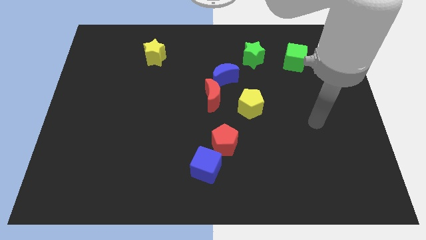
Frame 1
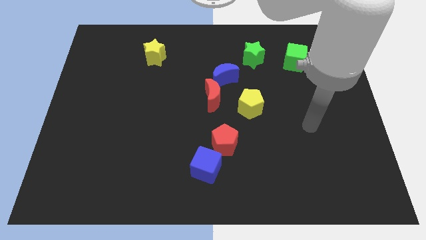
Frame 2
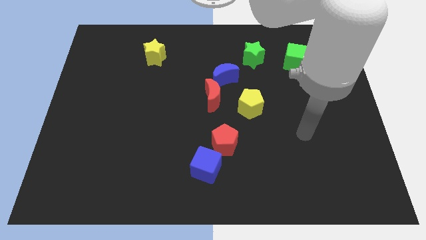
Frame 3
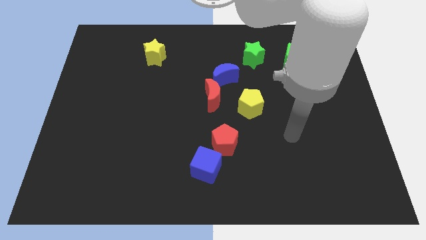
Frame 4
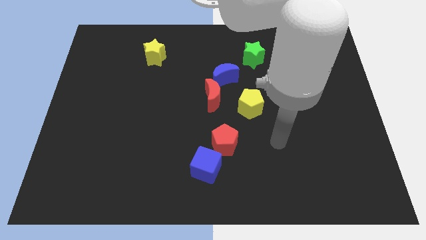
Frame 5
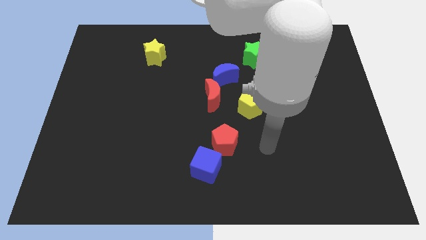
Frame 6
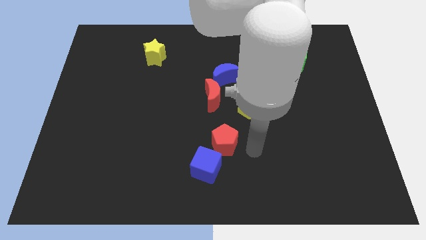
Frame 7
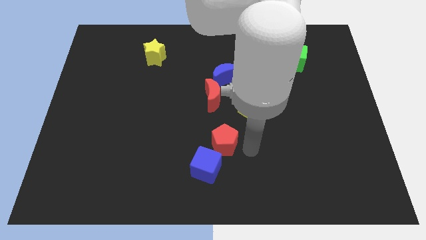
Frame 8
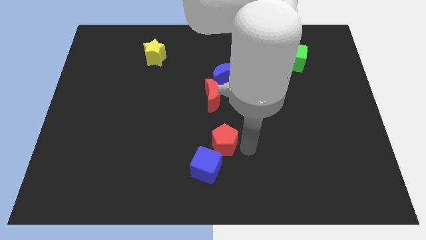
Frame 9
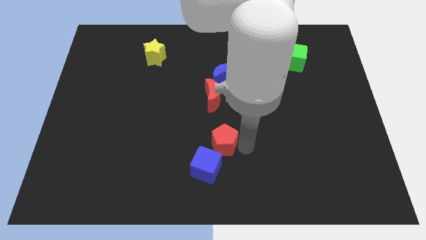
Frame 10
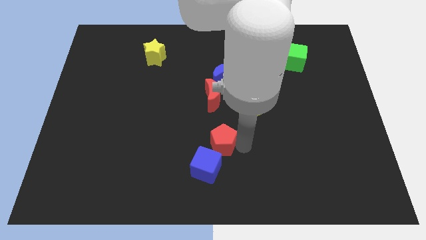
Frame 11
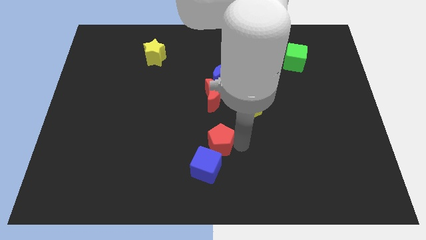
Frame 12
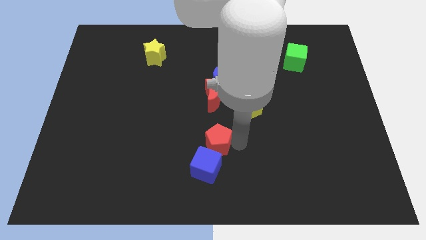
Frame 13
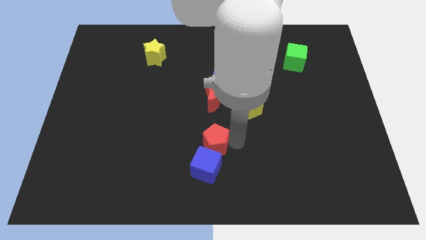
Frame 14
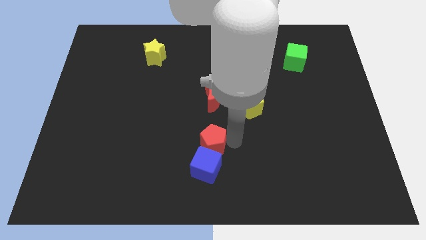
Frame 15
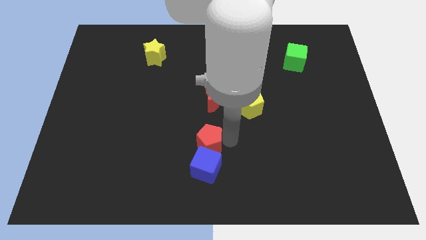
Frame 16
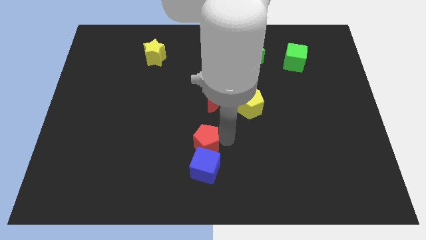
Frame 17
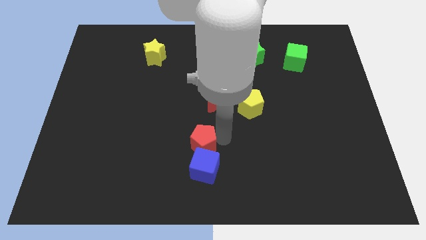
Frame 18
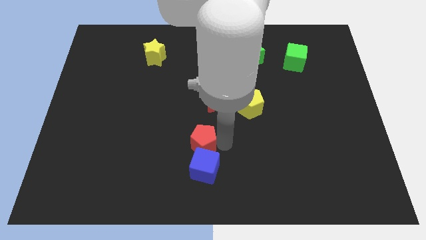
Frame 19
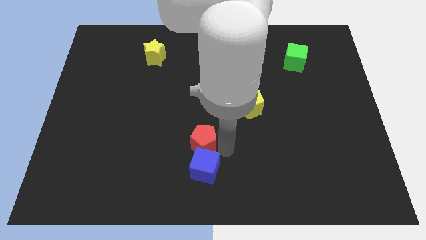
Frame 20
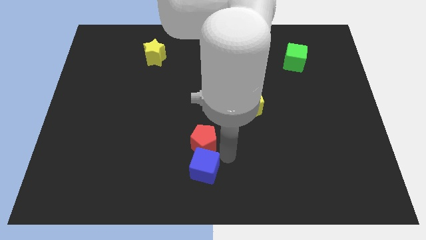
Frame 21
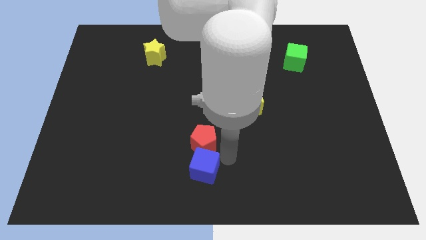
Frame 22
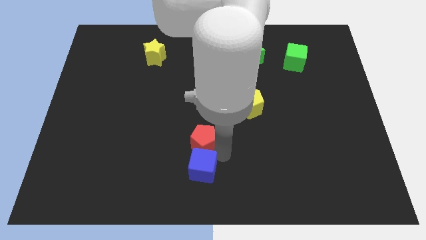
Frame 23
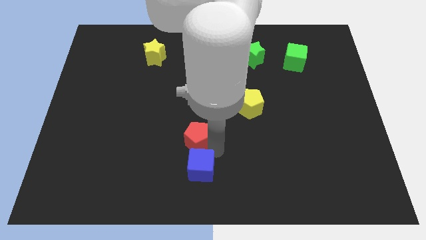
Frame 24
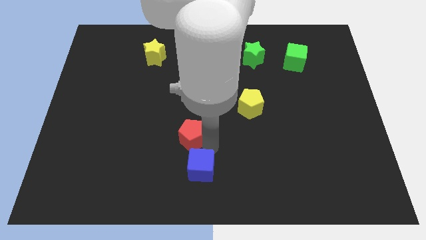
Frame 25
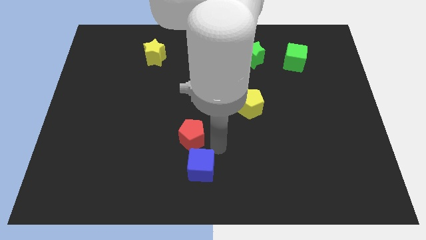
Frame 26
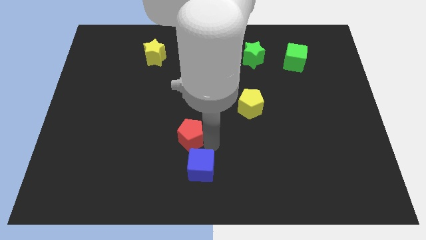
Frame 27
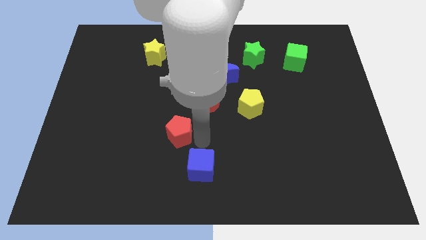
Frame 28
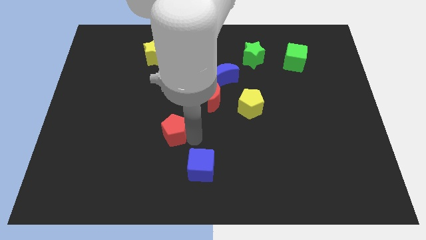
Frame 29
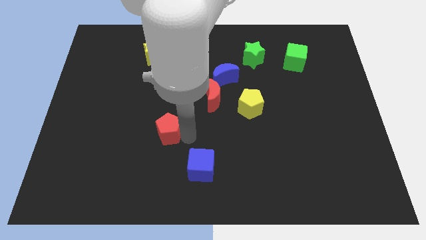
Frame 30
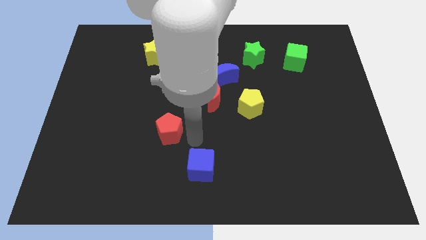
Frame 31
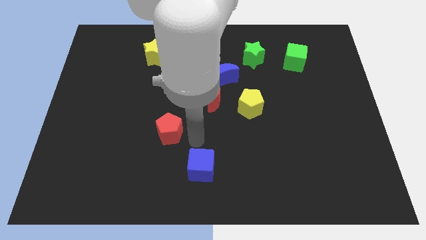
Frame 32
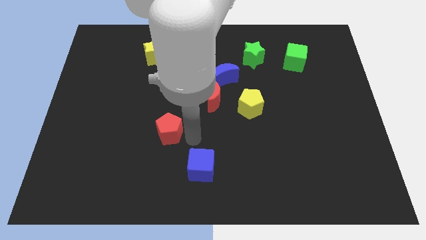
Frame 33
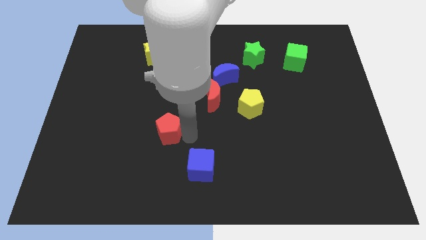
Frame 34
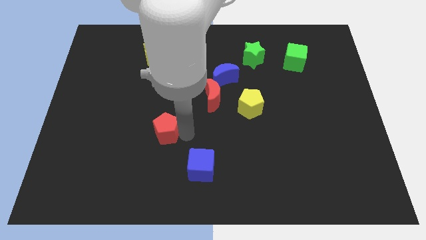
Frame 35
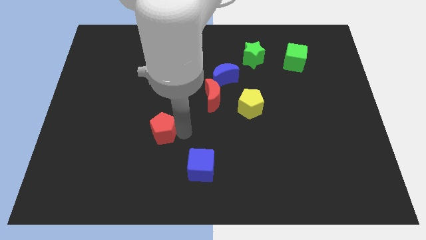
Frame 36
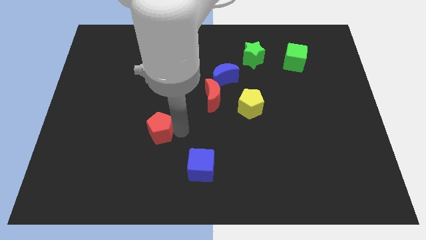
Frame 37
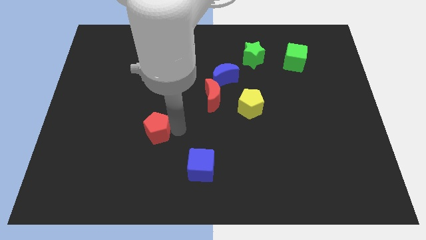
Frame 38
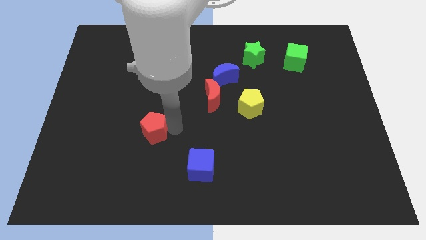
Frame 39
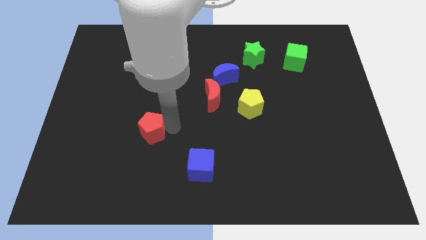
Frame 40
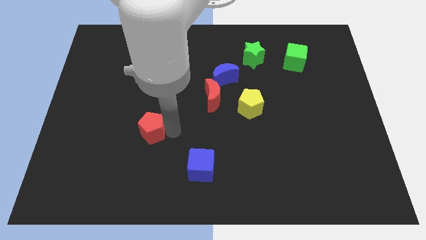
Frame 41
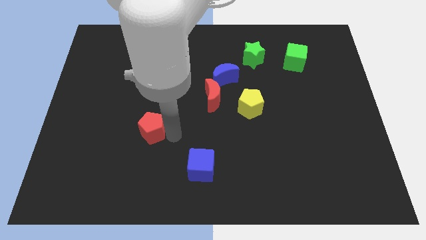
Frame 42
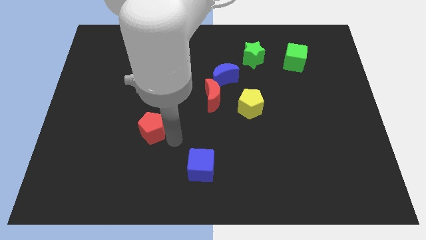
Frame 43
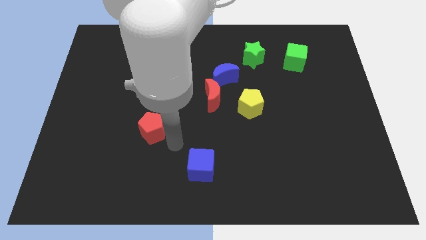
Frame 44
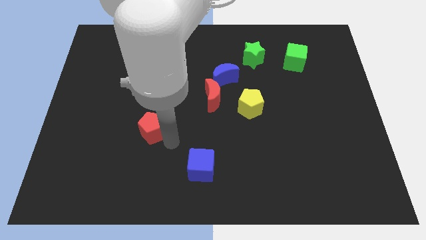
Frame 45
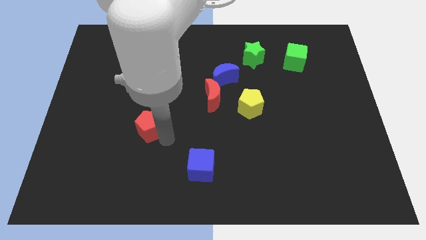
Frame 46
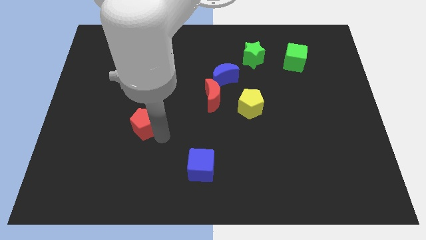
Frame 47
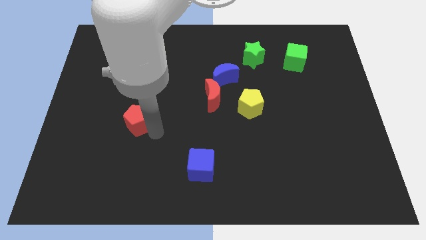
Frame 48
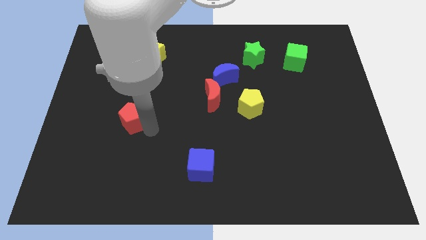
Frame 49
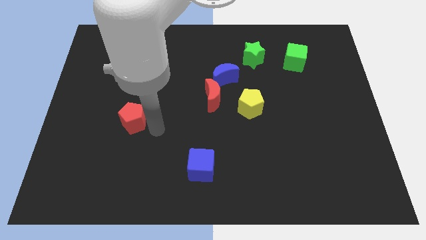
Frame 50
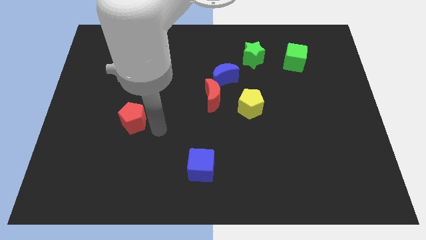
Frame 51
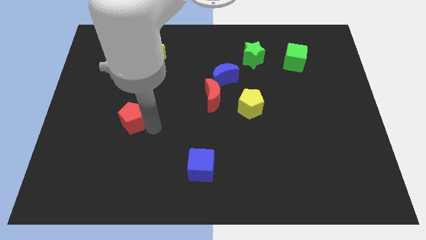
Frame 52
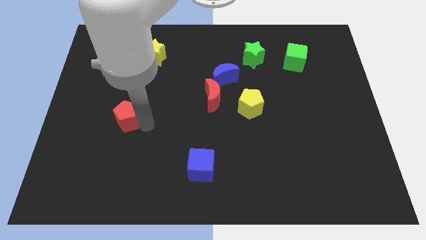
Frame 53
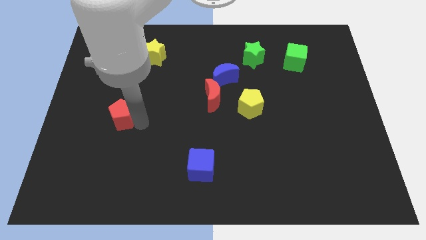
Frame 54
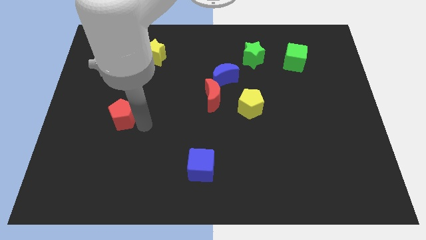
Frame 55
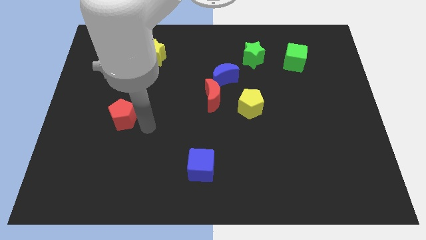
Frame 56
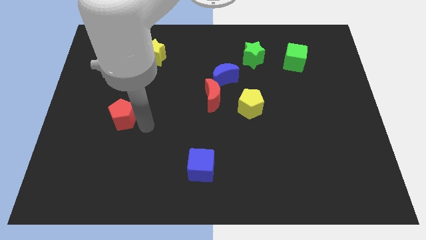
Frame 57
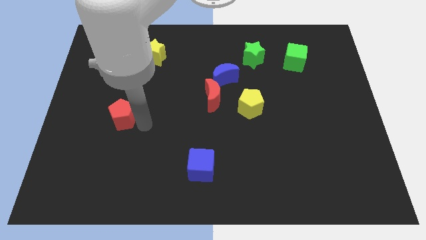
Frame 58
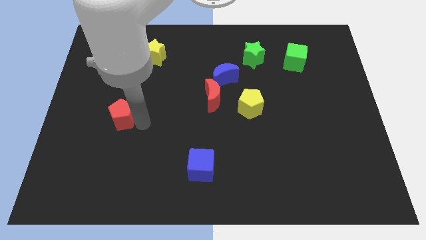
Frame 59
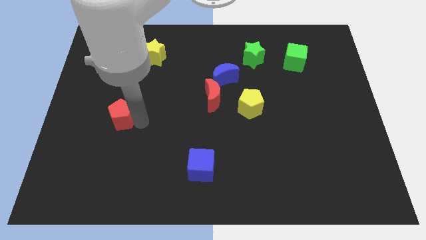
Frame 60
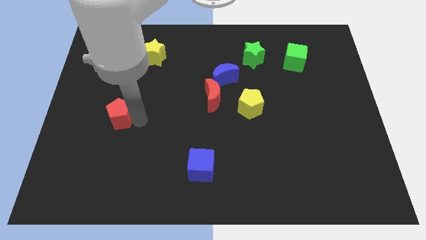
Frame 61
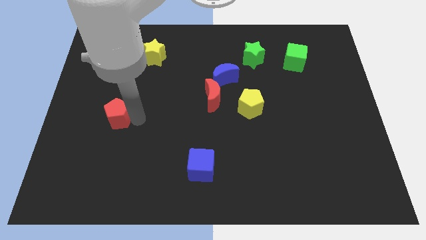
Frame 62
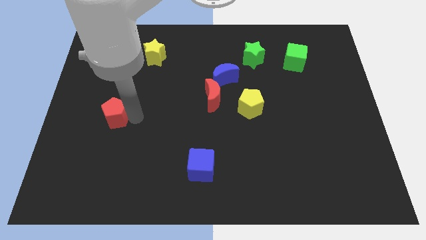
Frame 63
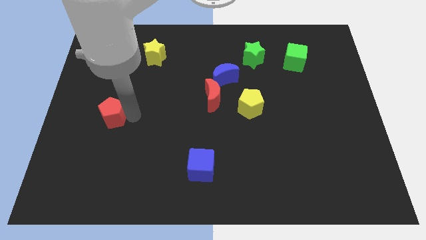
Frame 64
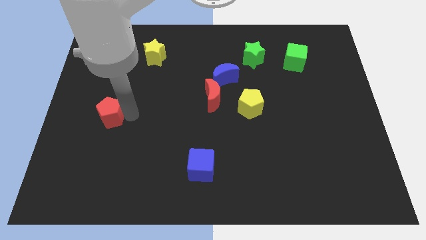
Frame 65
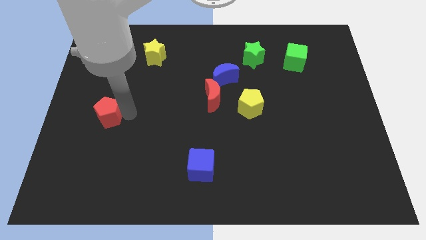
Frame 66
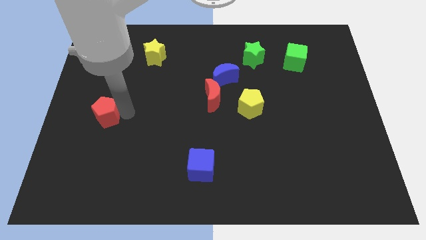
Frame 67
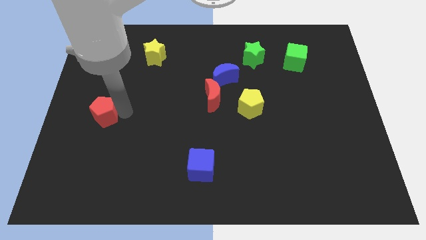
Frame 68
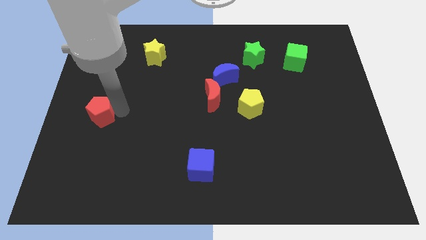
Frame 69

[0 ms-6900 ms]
put the red pentagon to the left side

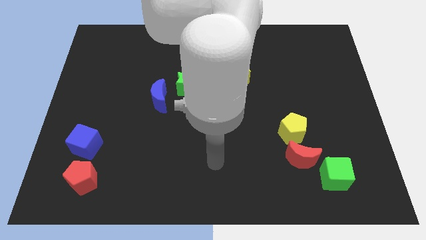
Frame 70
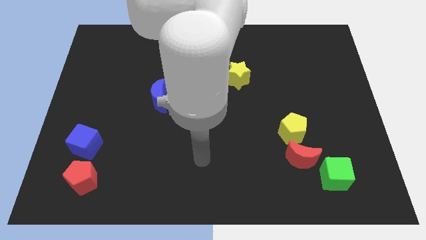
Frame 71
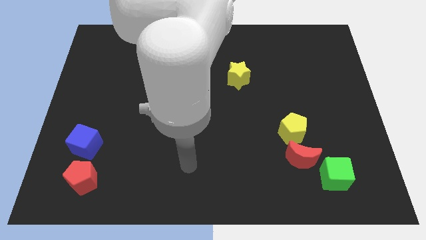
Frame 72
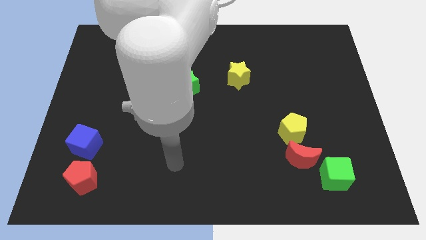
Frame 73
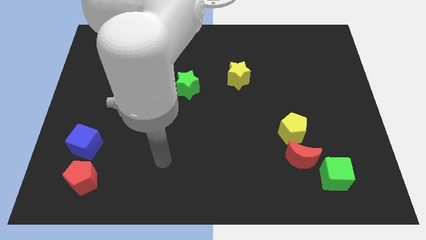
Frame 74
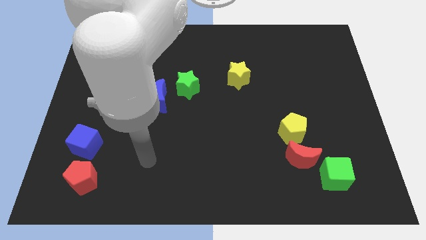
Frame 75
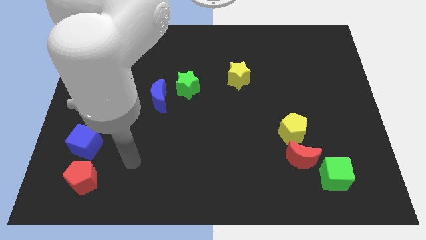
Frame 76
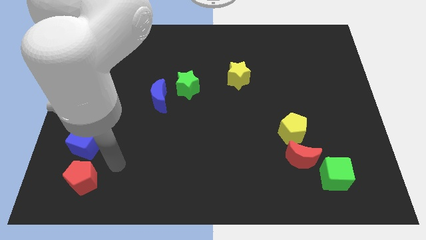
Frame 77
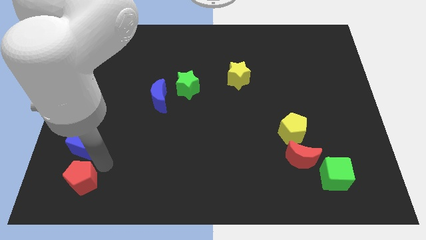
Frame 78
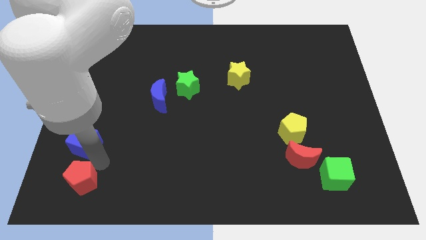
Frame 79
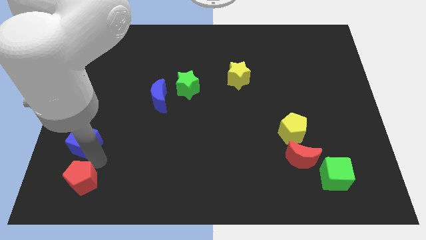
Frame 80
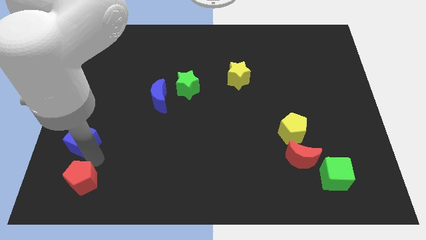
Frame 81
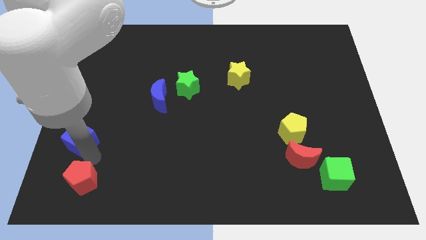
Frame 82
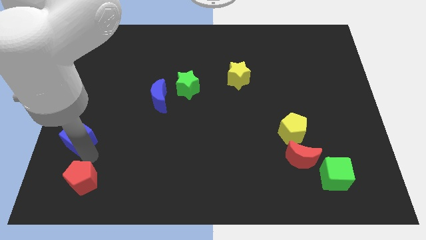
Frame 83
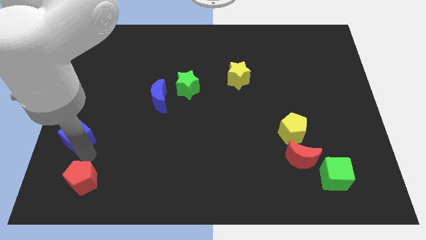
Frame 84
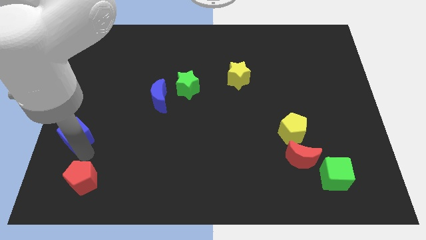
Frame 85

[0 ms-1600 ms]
put the blue cube to the left side
